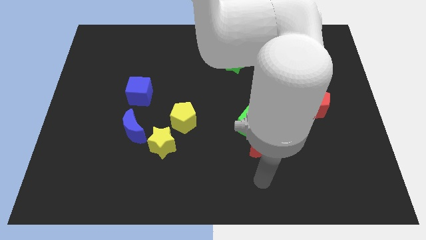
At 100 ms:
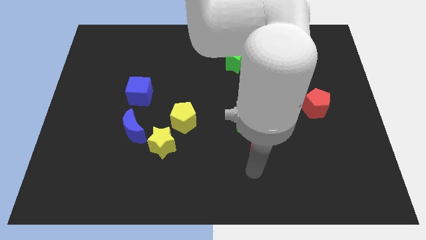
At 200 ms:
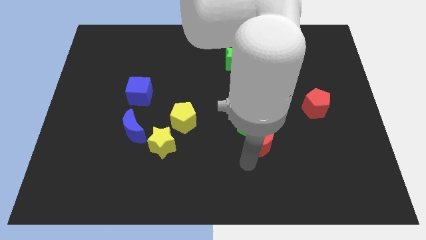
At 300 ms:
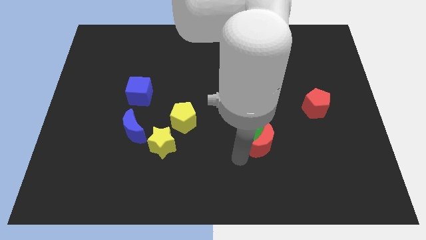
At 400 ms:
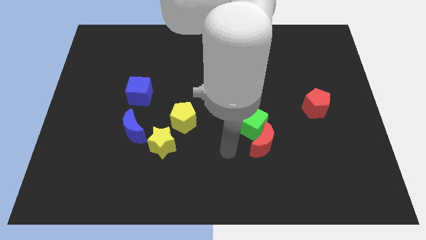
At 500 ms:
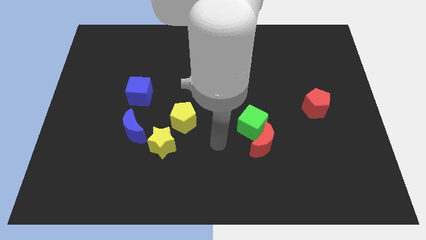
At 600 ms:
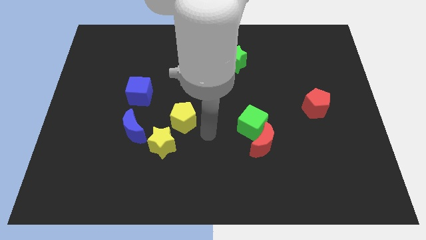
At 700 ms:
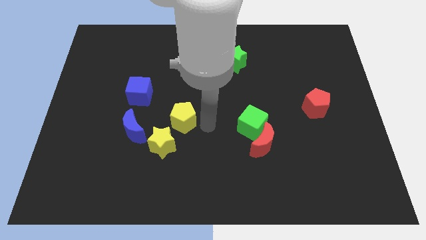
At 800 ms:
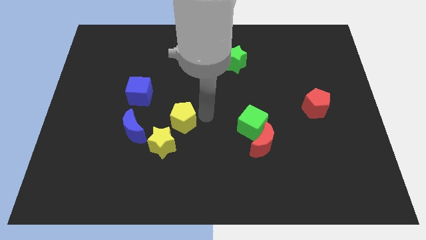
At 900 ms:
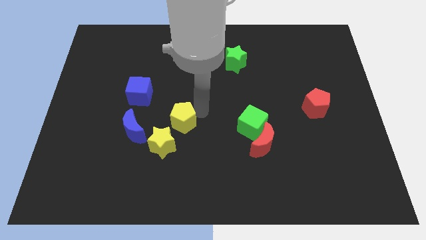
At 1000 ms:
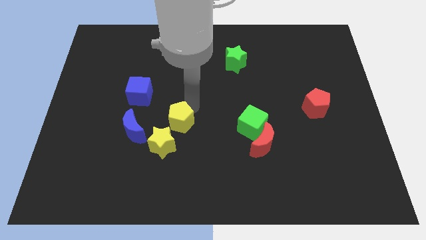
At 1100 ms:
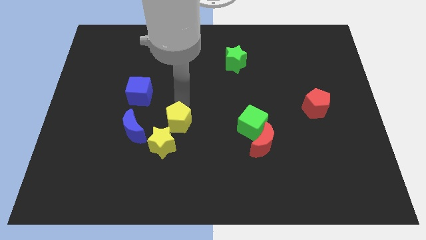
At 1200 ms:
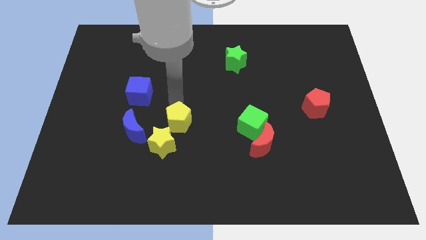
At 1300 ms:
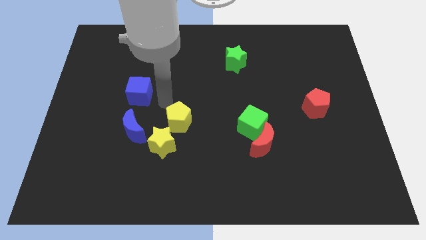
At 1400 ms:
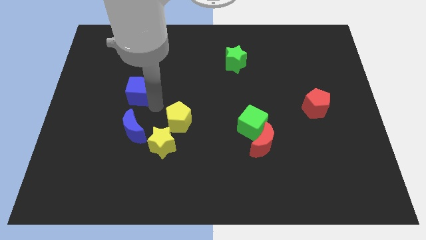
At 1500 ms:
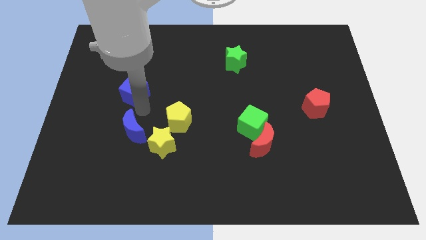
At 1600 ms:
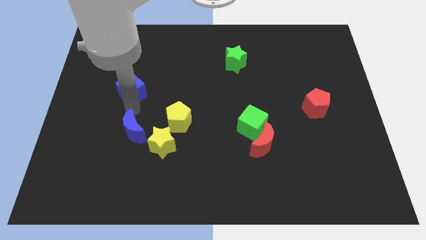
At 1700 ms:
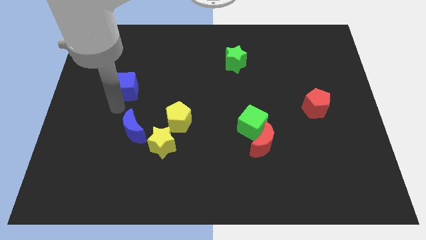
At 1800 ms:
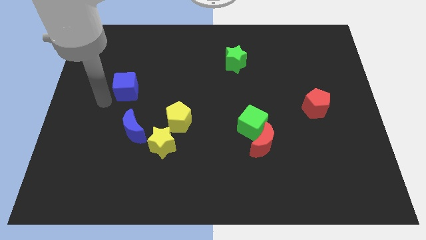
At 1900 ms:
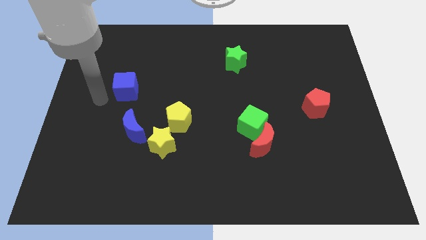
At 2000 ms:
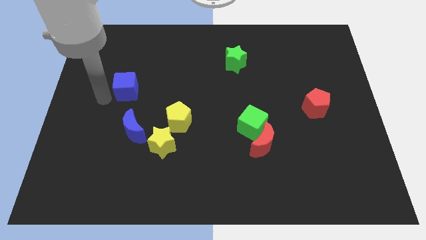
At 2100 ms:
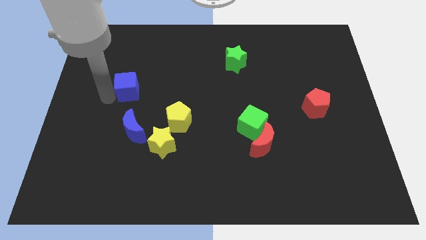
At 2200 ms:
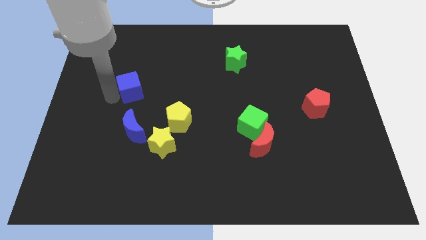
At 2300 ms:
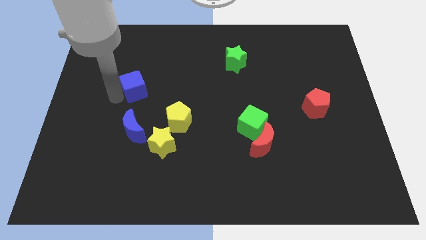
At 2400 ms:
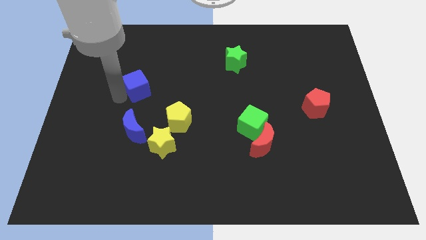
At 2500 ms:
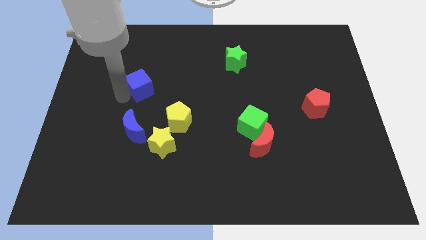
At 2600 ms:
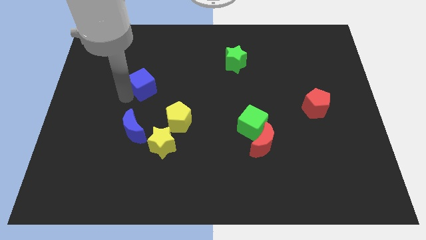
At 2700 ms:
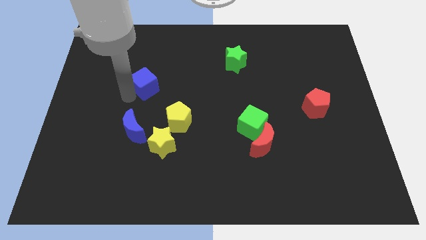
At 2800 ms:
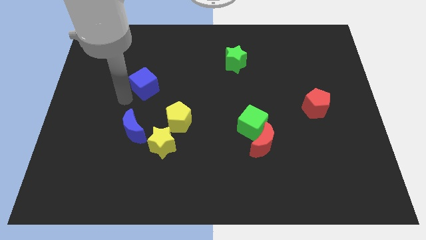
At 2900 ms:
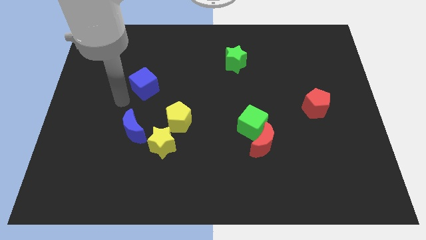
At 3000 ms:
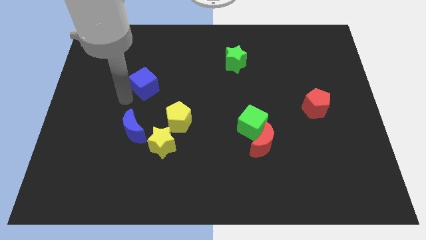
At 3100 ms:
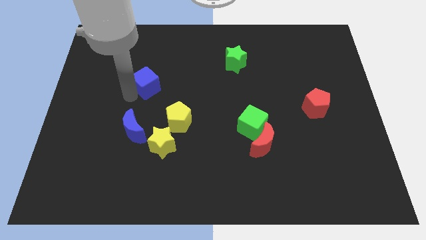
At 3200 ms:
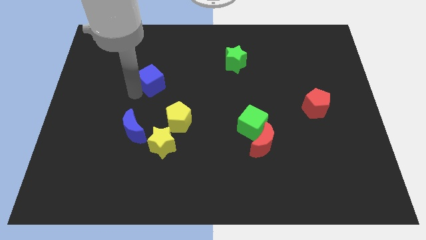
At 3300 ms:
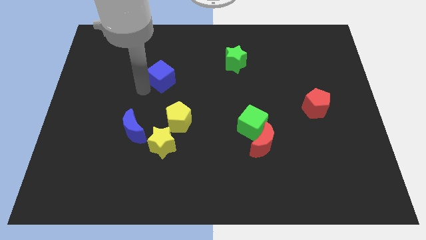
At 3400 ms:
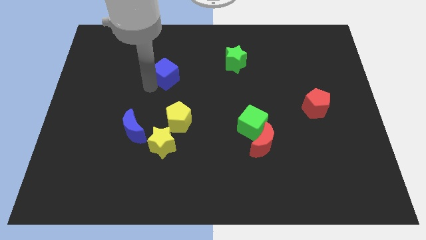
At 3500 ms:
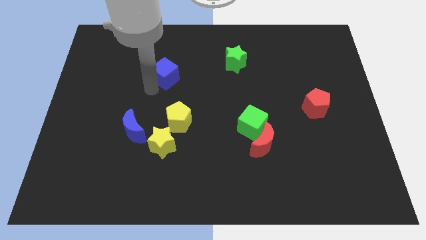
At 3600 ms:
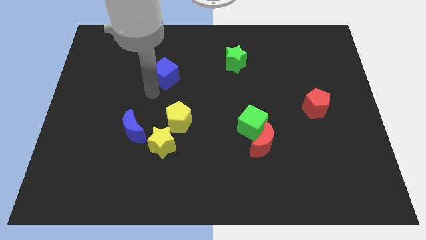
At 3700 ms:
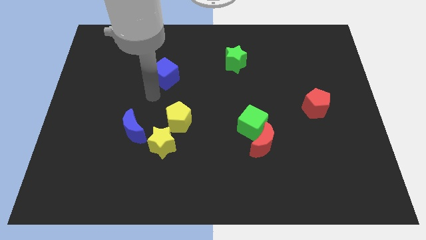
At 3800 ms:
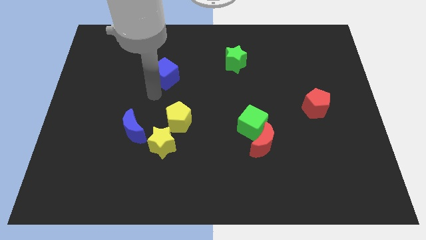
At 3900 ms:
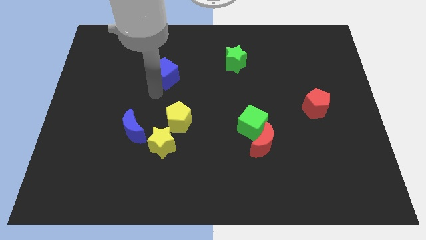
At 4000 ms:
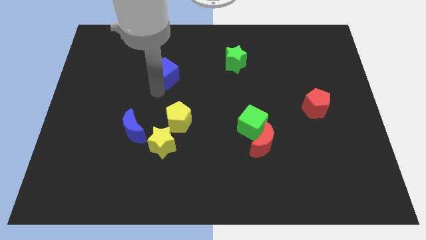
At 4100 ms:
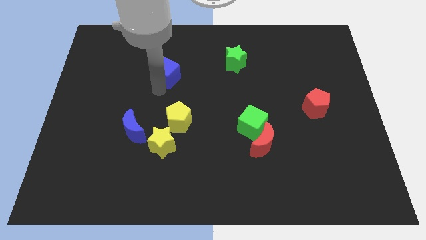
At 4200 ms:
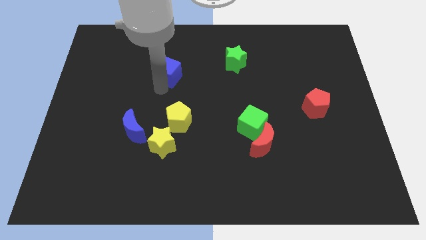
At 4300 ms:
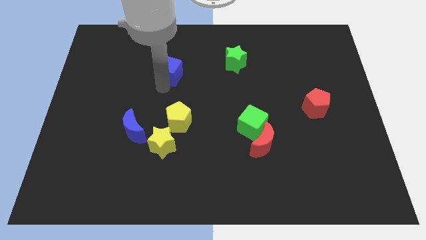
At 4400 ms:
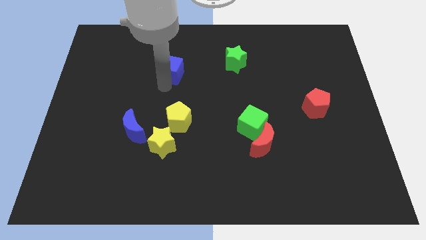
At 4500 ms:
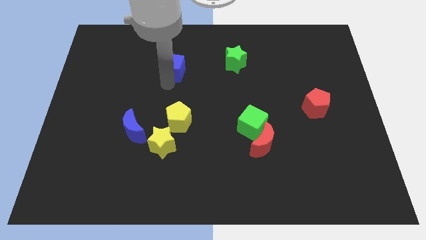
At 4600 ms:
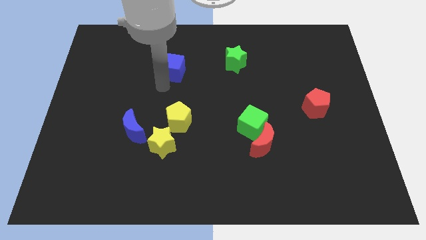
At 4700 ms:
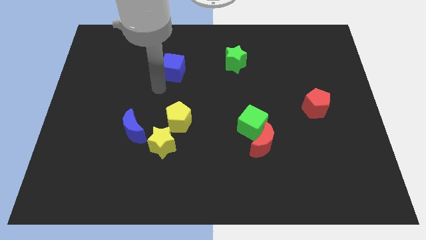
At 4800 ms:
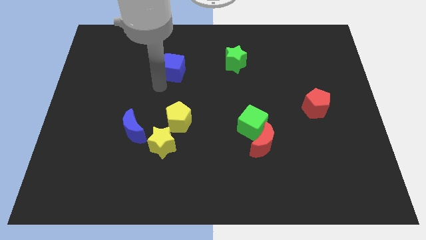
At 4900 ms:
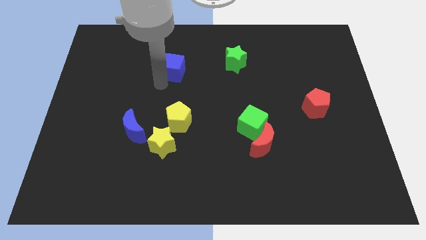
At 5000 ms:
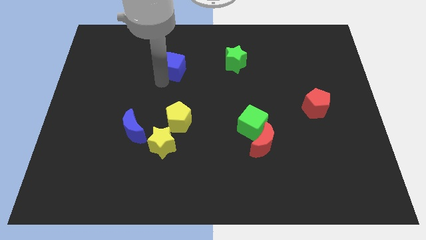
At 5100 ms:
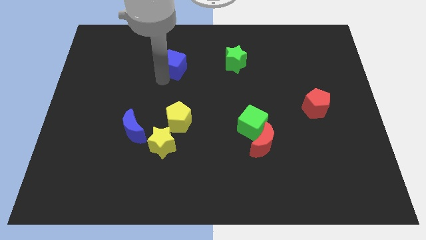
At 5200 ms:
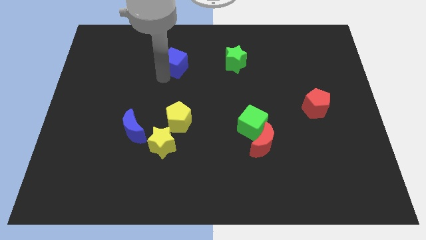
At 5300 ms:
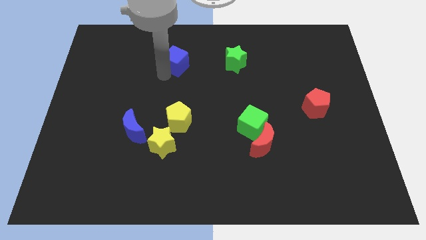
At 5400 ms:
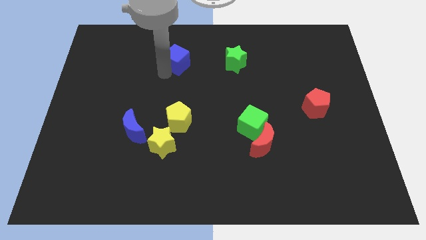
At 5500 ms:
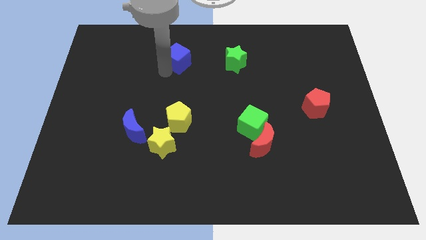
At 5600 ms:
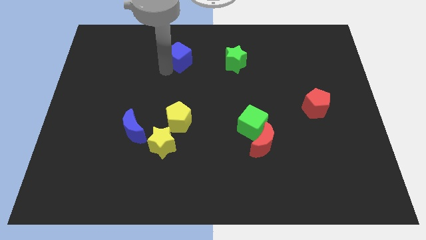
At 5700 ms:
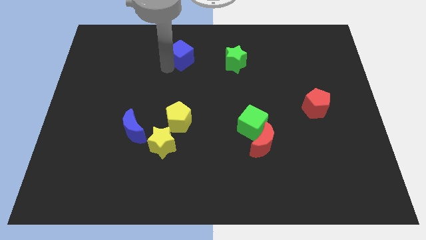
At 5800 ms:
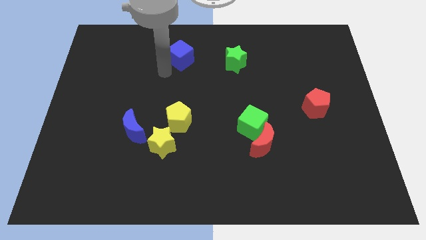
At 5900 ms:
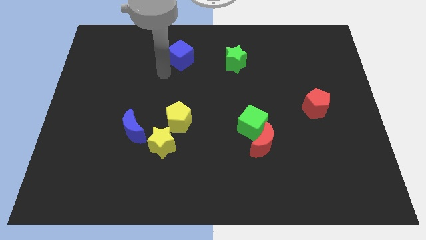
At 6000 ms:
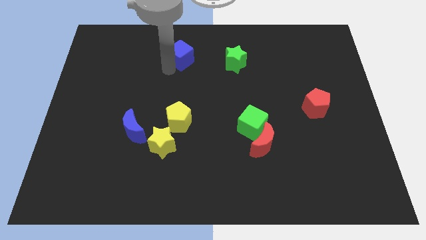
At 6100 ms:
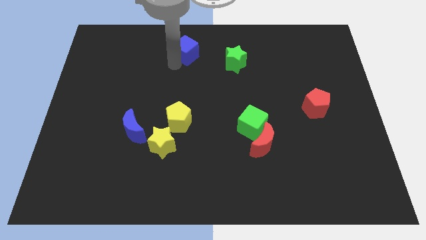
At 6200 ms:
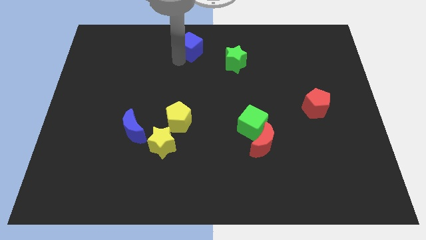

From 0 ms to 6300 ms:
move the blue cube to the towards your base
